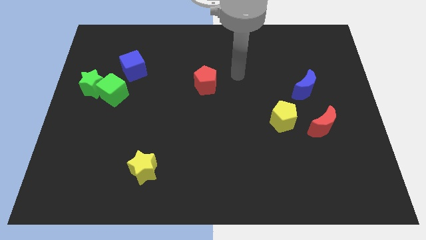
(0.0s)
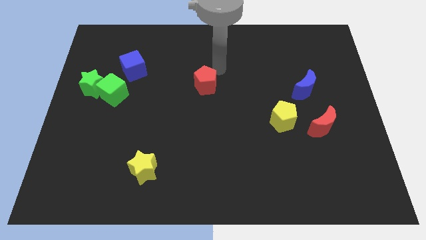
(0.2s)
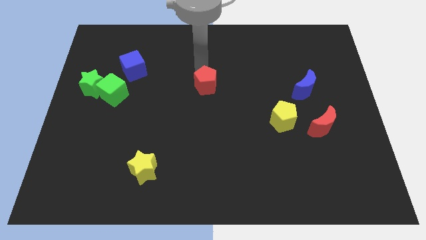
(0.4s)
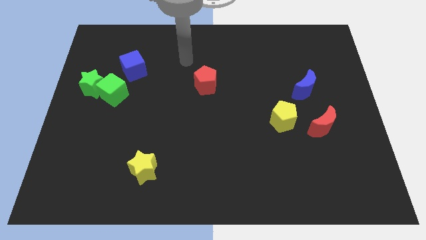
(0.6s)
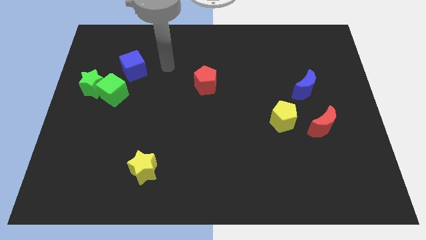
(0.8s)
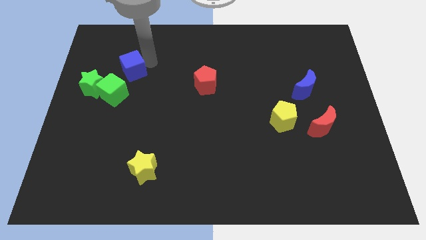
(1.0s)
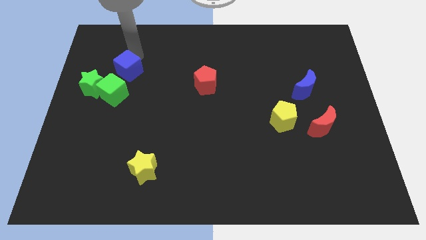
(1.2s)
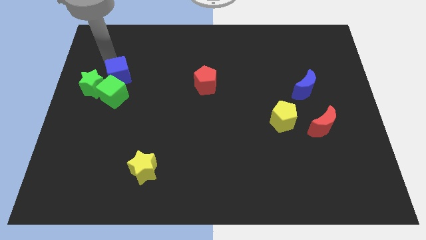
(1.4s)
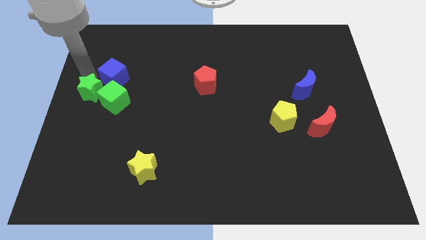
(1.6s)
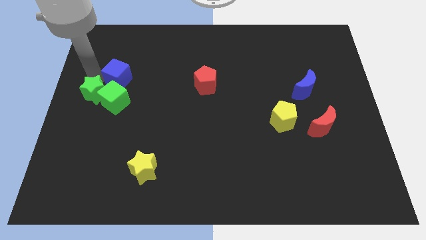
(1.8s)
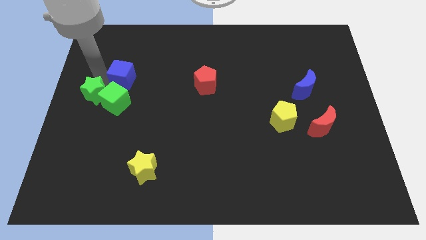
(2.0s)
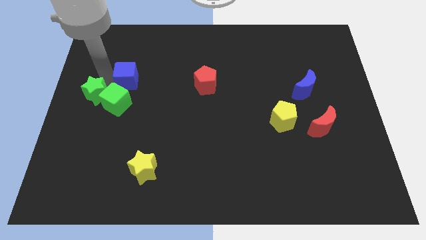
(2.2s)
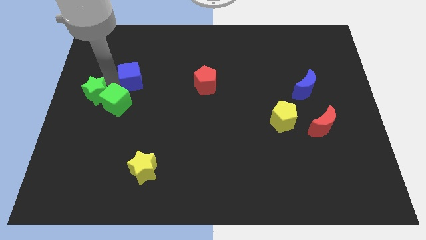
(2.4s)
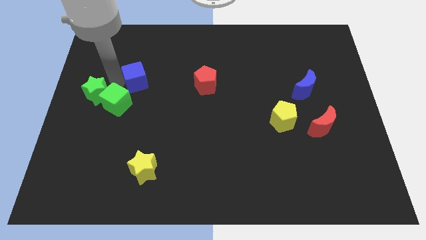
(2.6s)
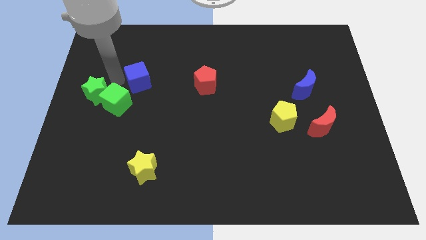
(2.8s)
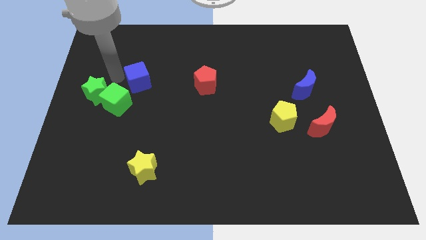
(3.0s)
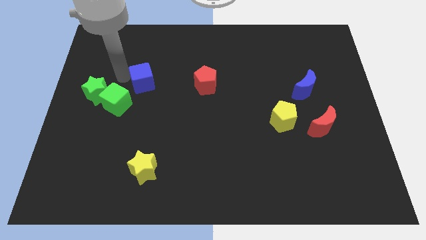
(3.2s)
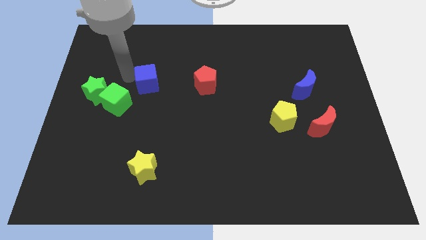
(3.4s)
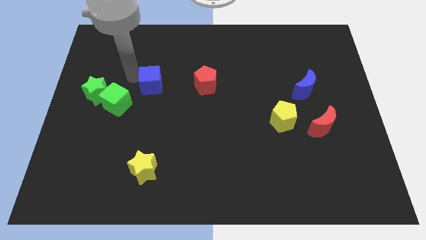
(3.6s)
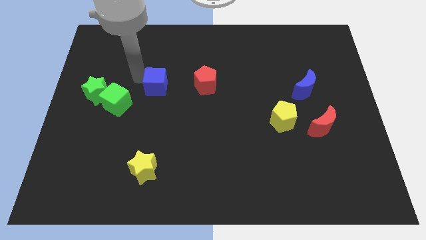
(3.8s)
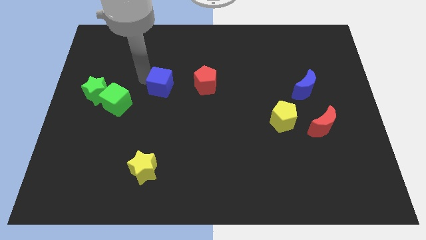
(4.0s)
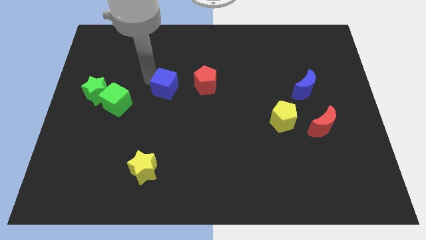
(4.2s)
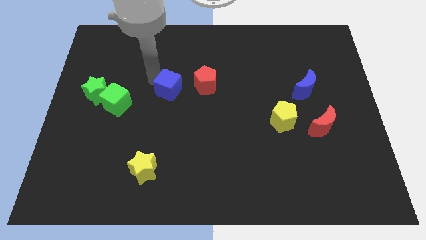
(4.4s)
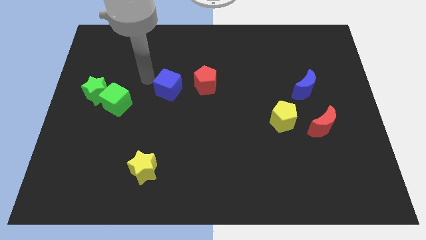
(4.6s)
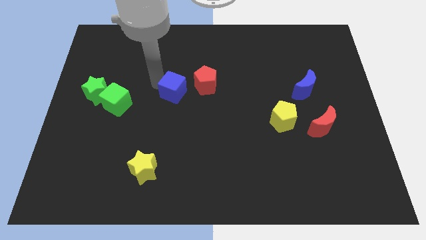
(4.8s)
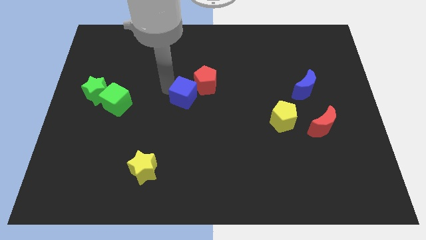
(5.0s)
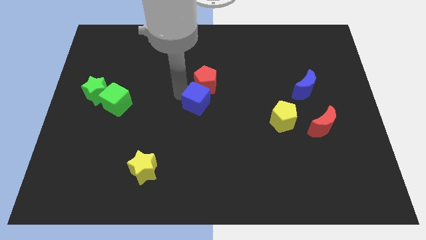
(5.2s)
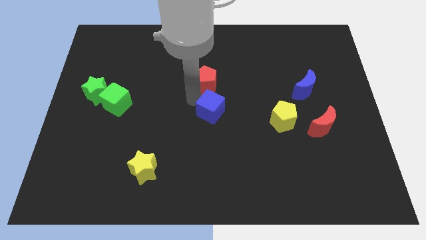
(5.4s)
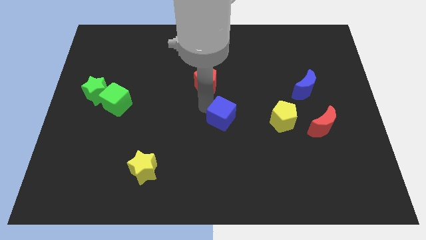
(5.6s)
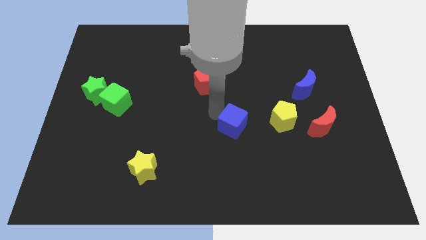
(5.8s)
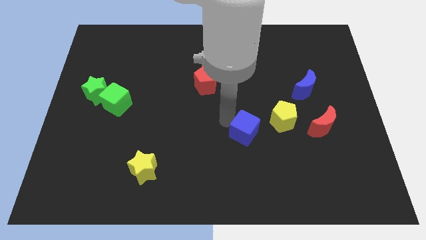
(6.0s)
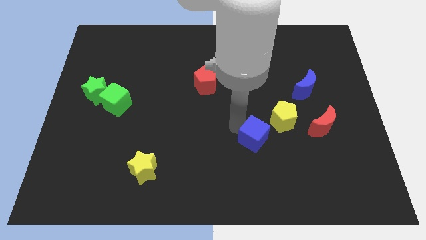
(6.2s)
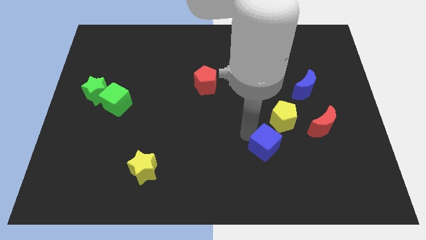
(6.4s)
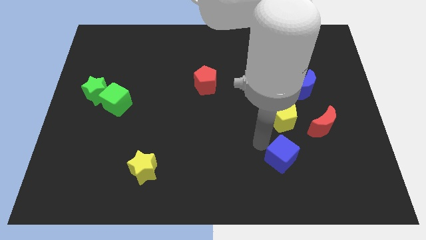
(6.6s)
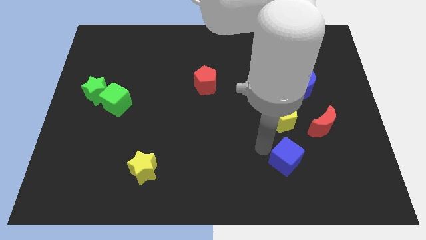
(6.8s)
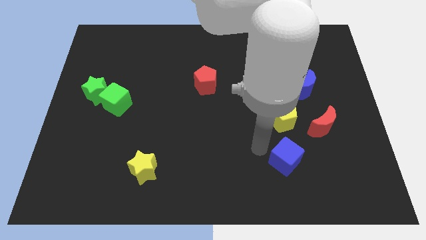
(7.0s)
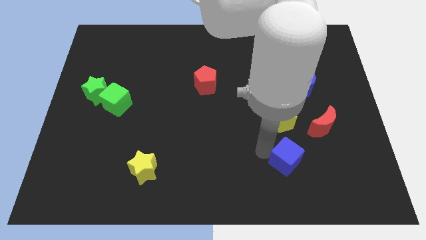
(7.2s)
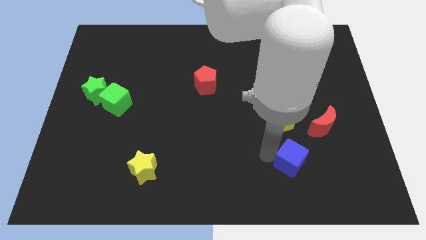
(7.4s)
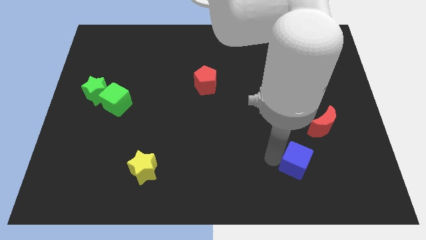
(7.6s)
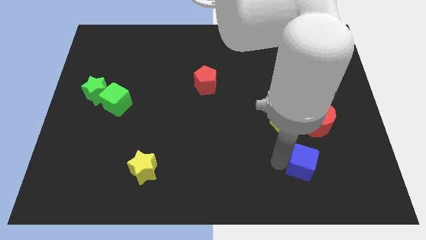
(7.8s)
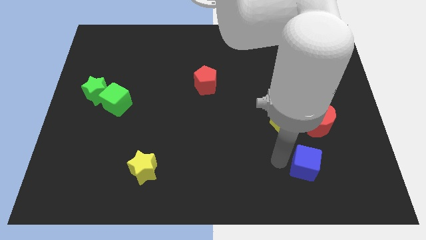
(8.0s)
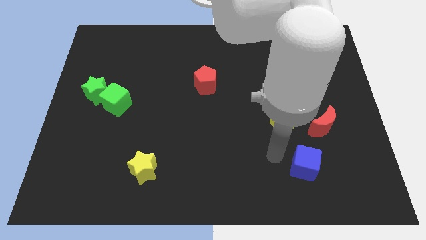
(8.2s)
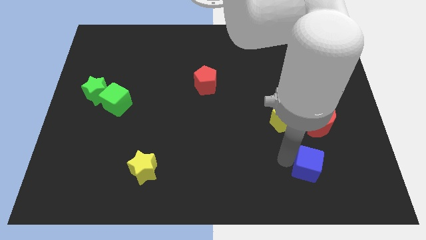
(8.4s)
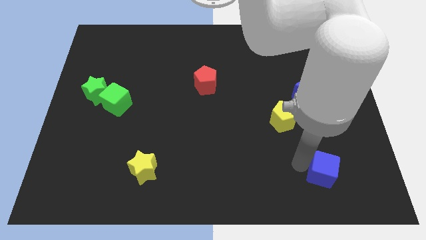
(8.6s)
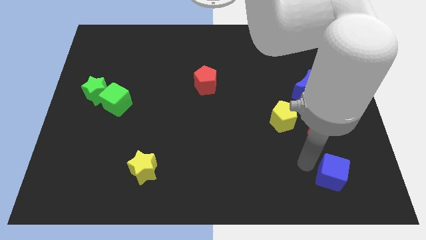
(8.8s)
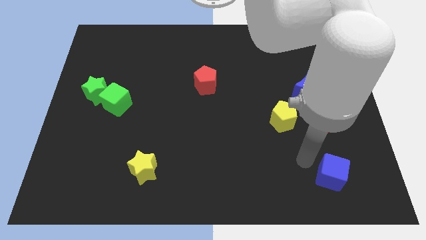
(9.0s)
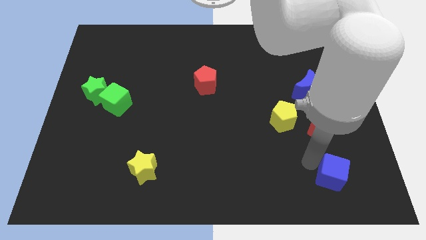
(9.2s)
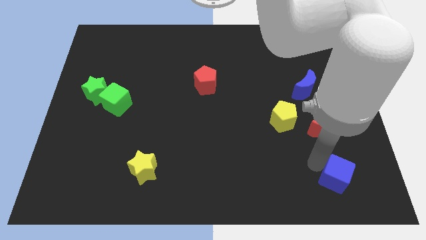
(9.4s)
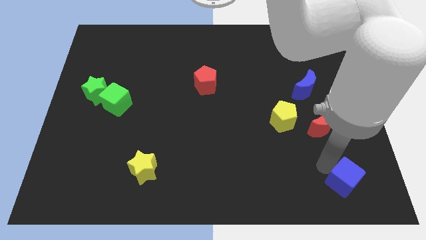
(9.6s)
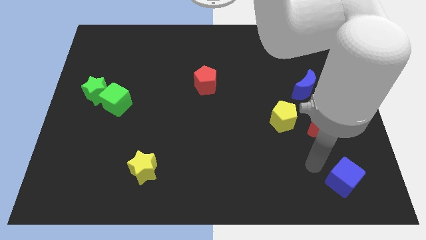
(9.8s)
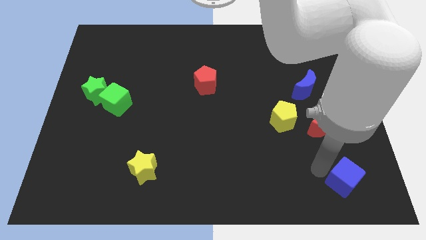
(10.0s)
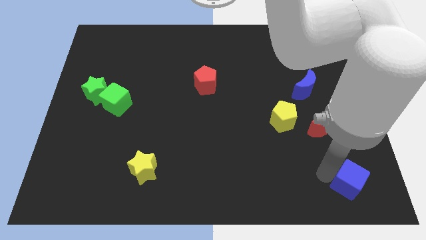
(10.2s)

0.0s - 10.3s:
push the blue cube to the bottom right corner

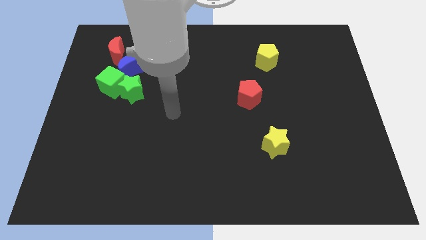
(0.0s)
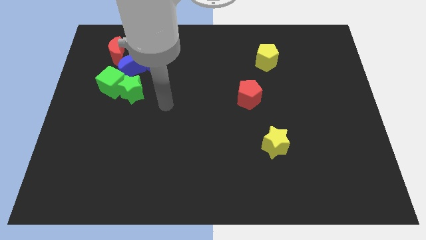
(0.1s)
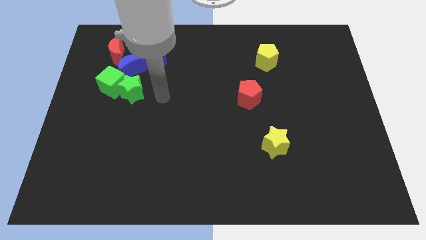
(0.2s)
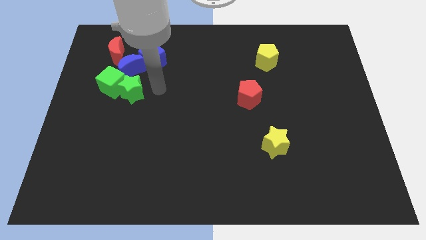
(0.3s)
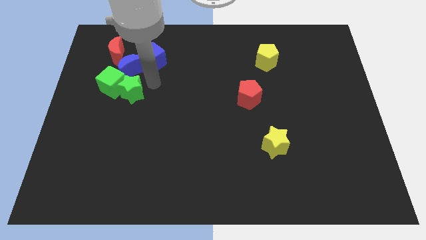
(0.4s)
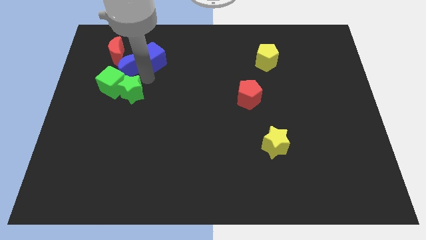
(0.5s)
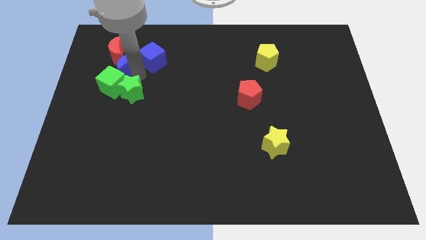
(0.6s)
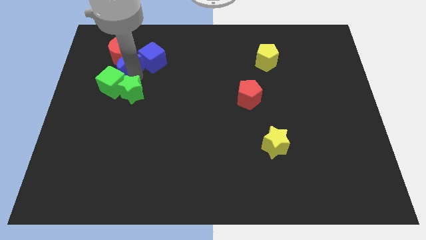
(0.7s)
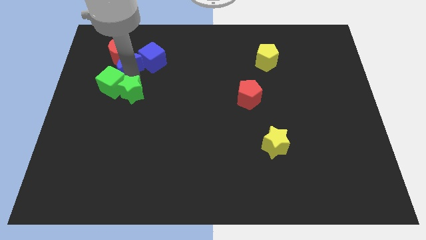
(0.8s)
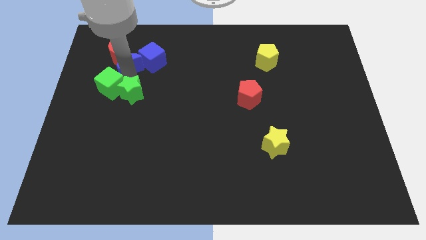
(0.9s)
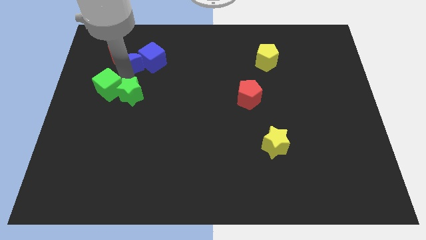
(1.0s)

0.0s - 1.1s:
move the green cube to the center left
